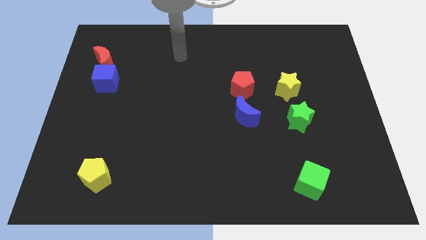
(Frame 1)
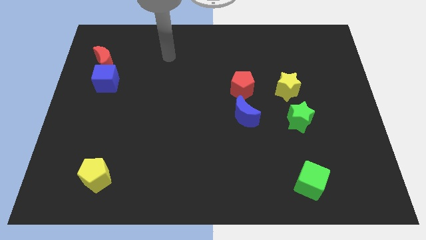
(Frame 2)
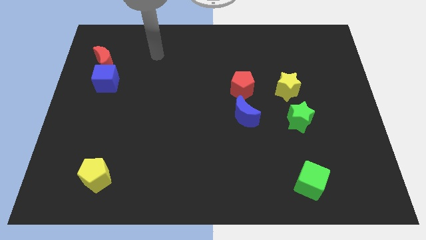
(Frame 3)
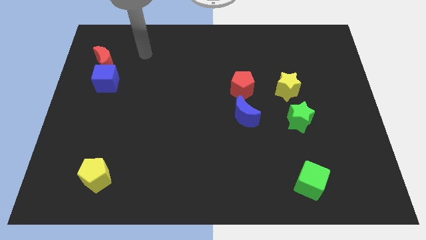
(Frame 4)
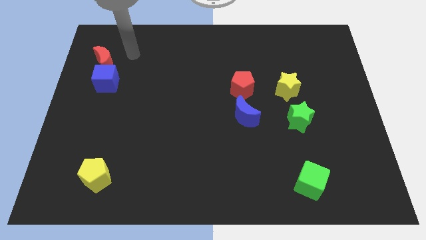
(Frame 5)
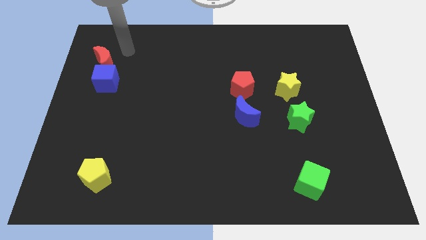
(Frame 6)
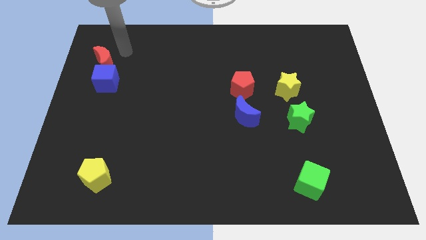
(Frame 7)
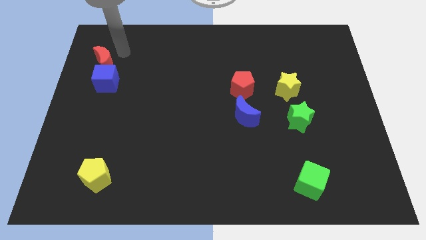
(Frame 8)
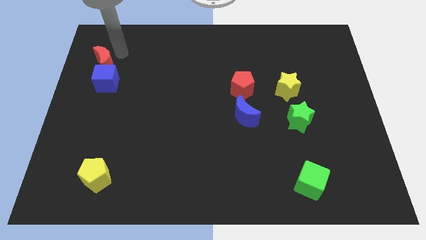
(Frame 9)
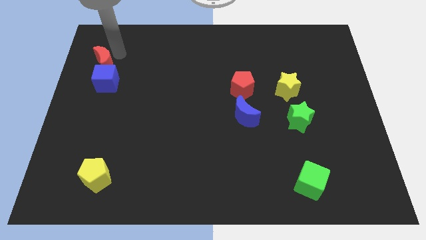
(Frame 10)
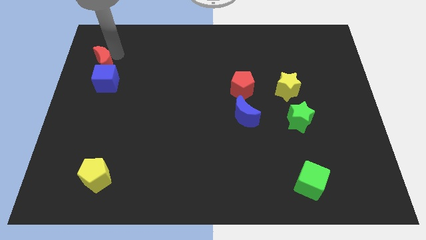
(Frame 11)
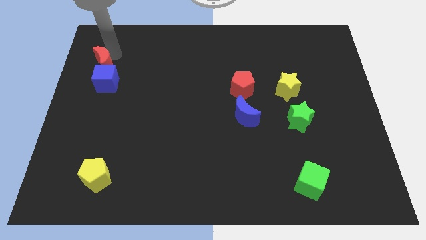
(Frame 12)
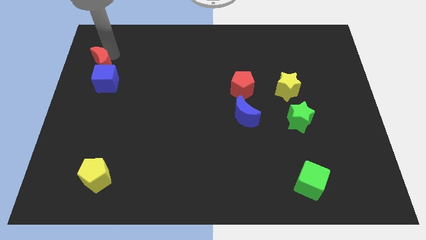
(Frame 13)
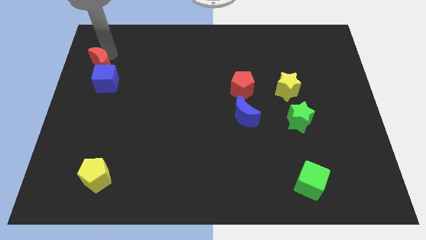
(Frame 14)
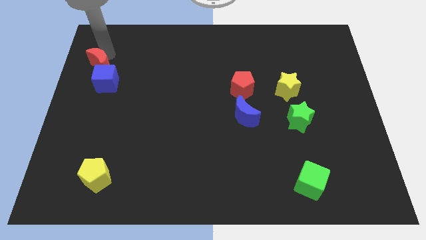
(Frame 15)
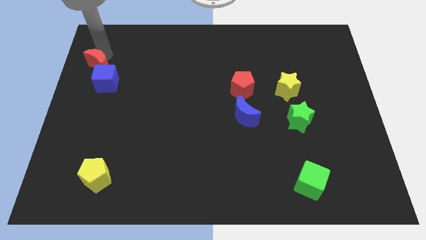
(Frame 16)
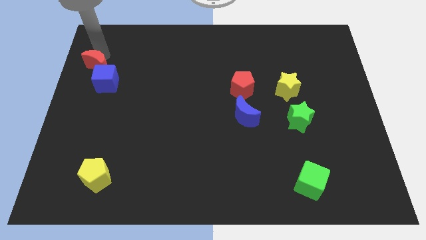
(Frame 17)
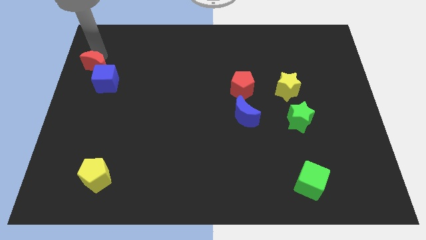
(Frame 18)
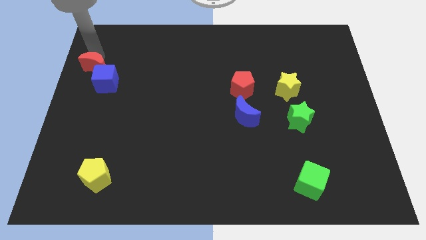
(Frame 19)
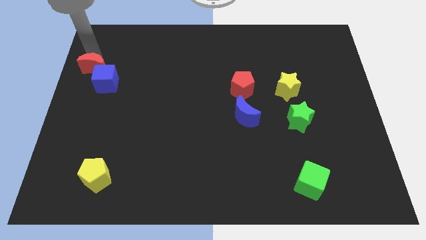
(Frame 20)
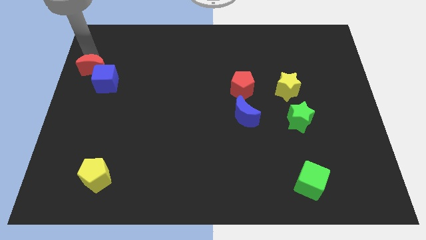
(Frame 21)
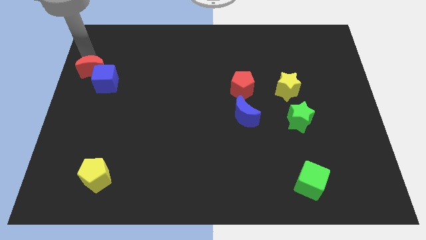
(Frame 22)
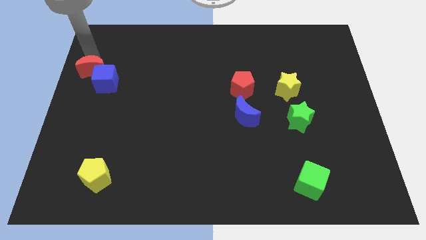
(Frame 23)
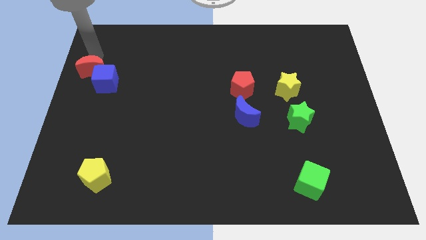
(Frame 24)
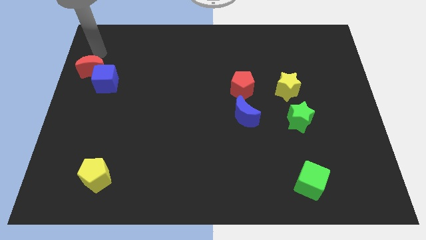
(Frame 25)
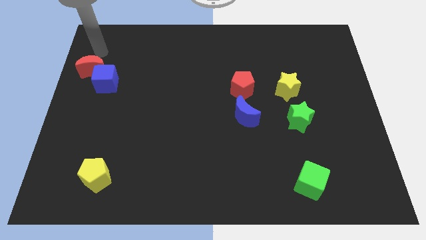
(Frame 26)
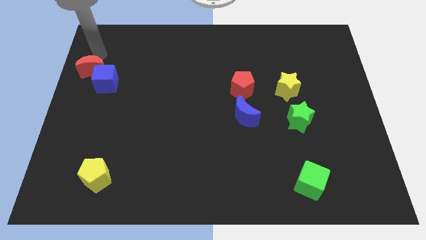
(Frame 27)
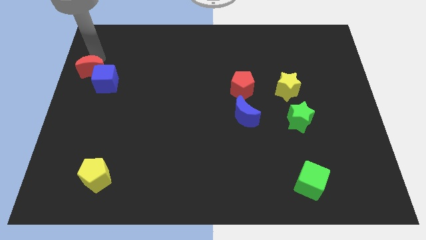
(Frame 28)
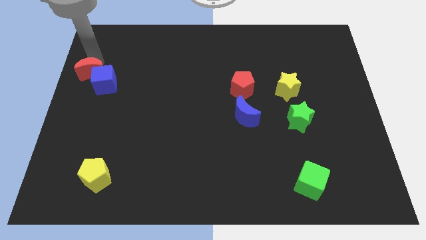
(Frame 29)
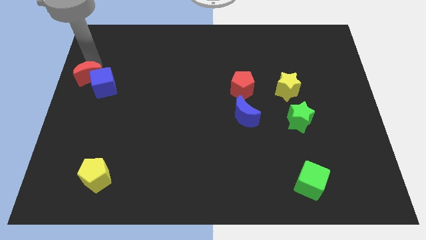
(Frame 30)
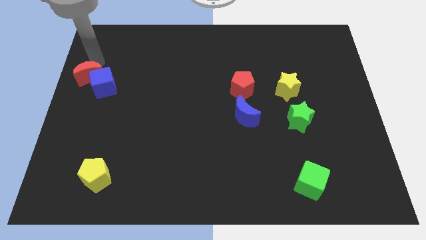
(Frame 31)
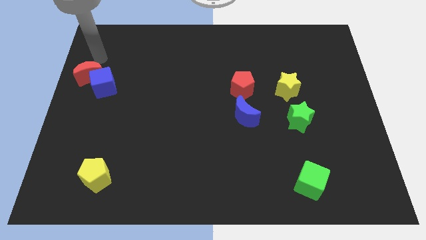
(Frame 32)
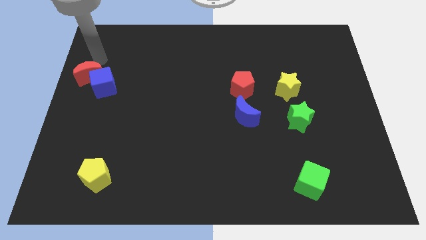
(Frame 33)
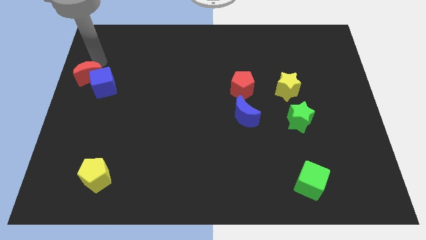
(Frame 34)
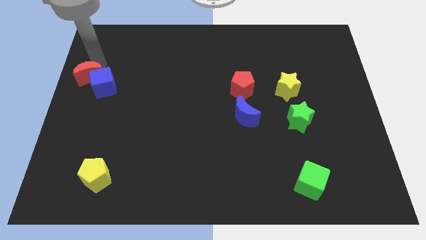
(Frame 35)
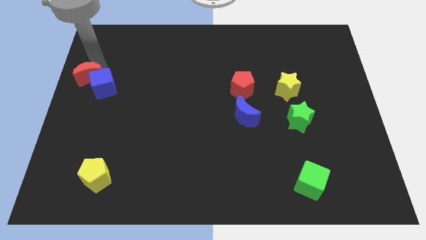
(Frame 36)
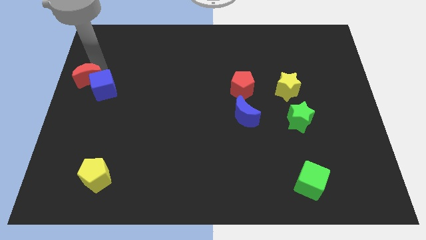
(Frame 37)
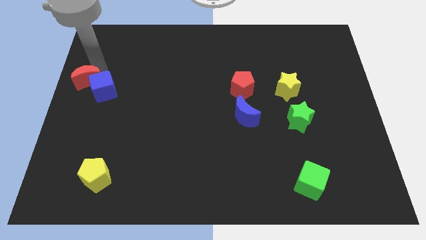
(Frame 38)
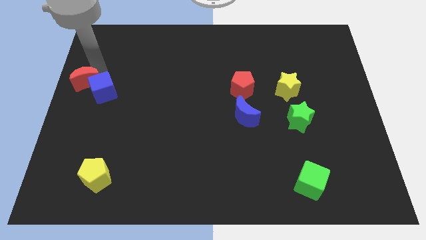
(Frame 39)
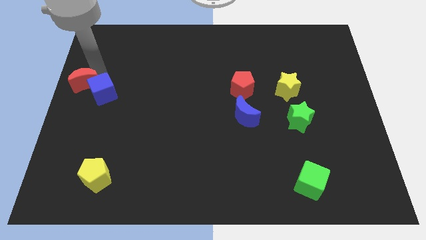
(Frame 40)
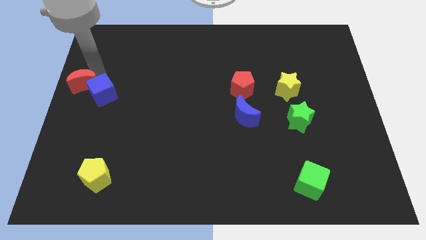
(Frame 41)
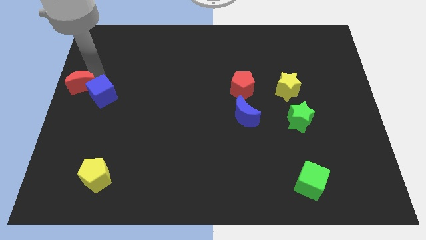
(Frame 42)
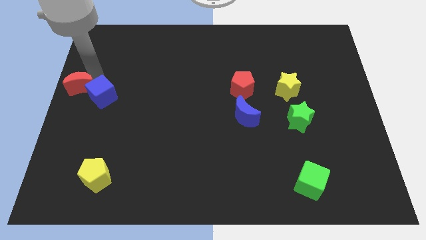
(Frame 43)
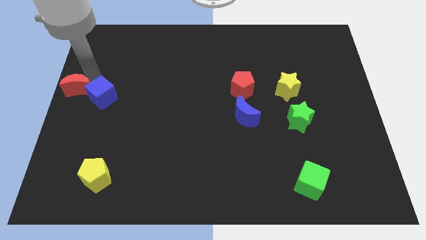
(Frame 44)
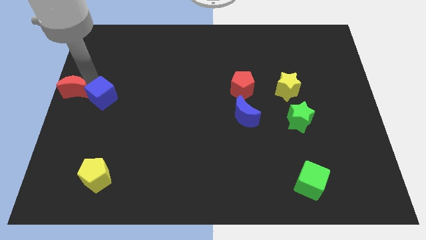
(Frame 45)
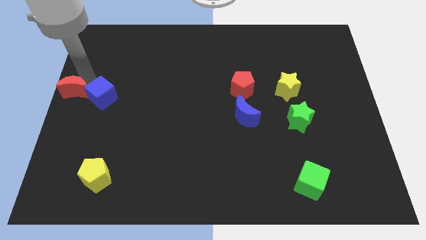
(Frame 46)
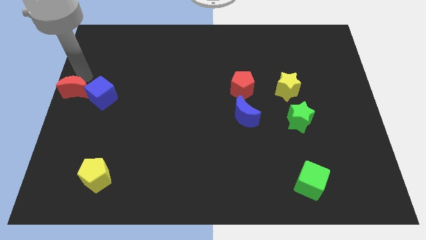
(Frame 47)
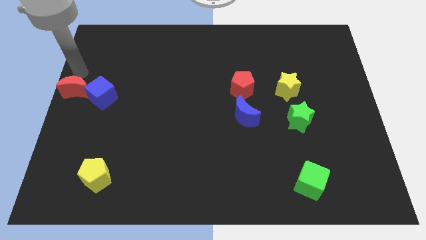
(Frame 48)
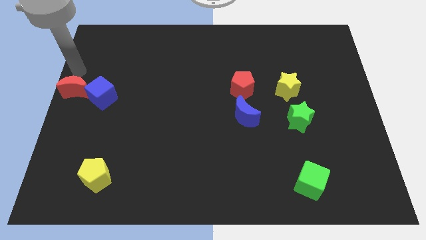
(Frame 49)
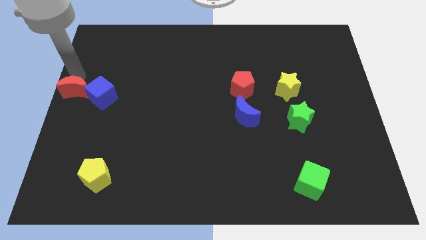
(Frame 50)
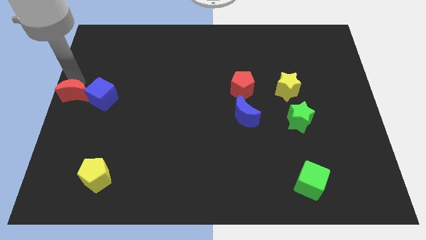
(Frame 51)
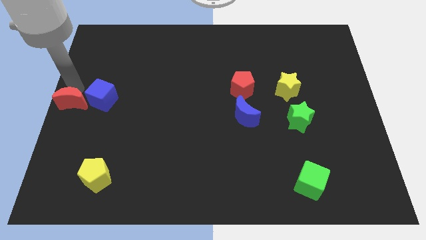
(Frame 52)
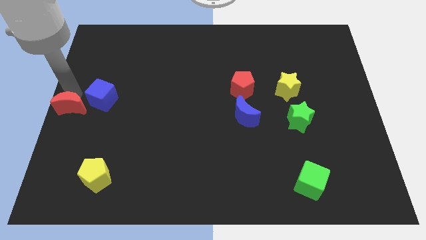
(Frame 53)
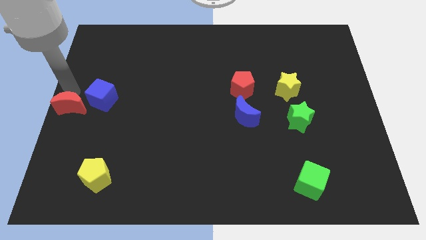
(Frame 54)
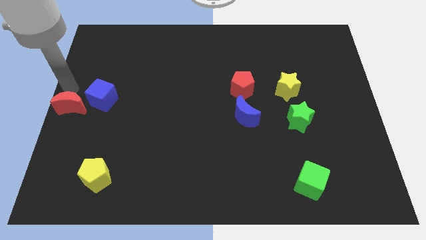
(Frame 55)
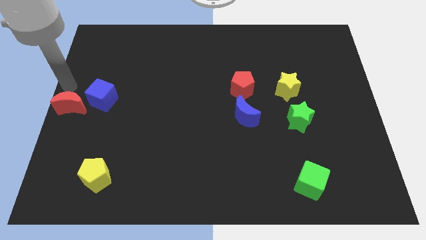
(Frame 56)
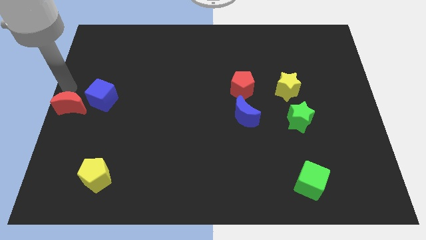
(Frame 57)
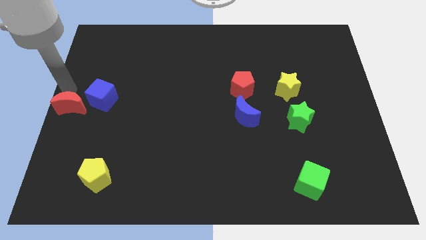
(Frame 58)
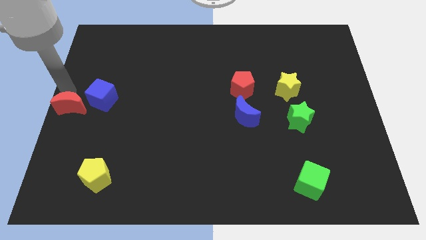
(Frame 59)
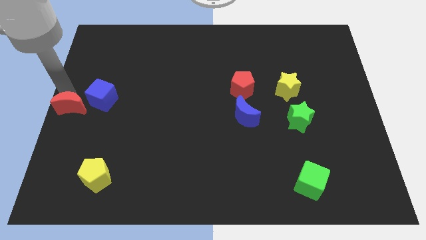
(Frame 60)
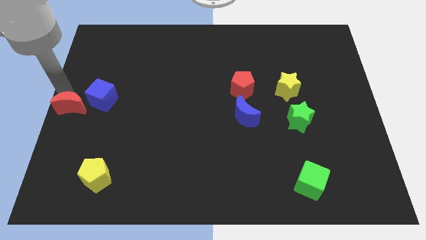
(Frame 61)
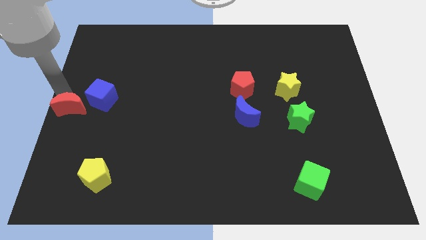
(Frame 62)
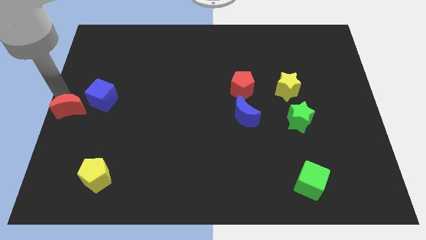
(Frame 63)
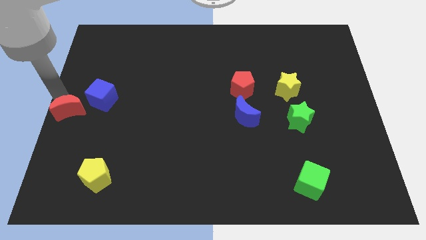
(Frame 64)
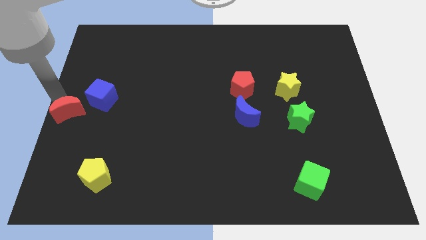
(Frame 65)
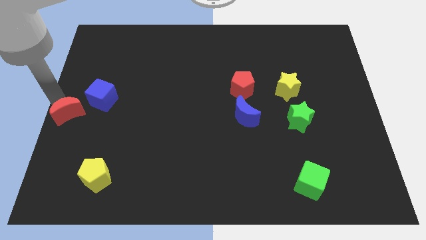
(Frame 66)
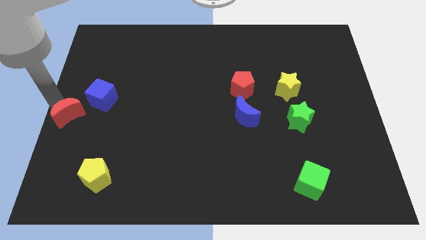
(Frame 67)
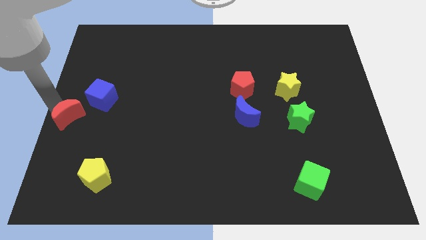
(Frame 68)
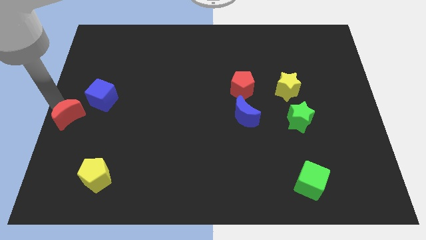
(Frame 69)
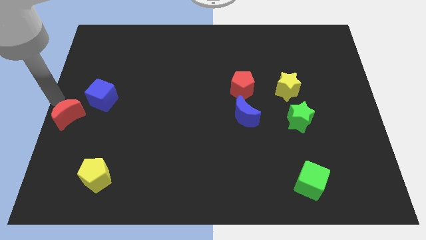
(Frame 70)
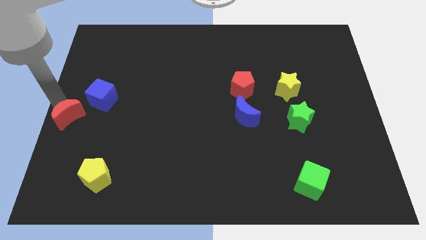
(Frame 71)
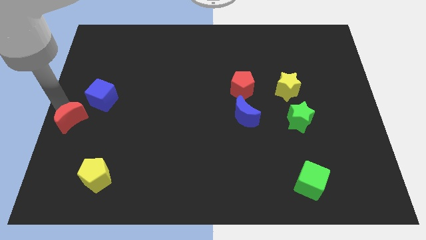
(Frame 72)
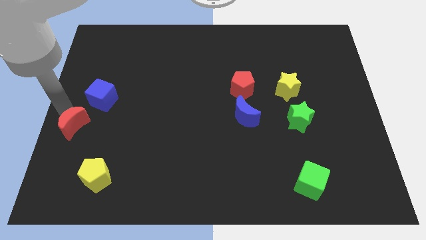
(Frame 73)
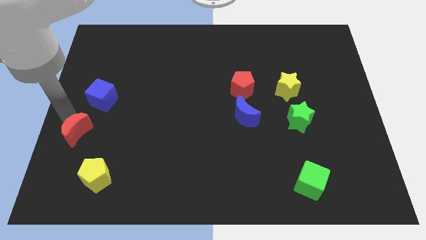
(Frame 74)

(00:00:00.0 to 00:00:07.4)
slide the red moon downwards

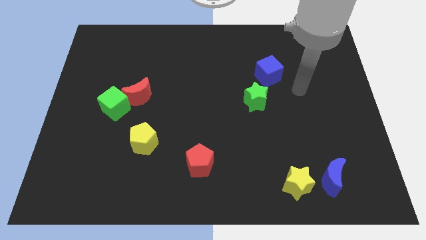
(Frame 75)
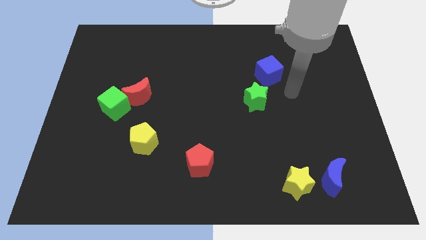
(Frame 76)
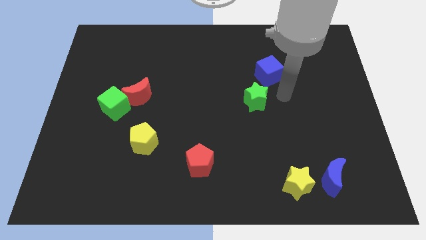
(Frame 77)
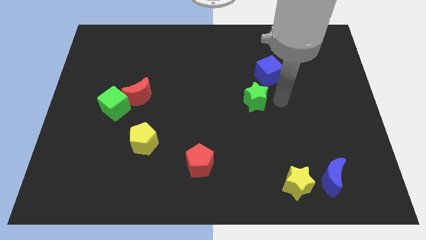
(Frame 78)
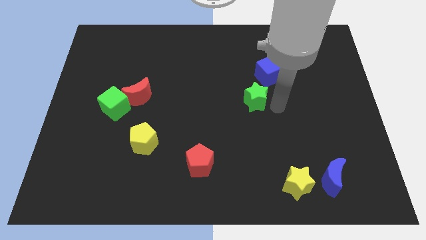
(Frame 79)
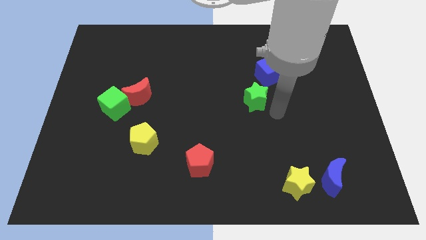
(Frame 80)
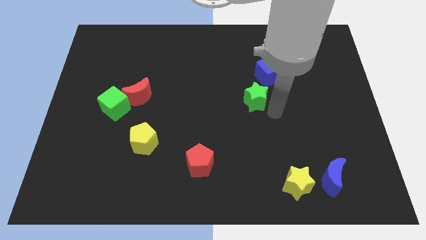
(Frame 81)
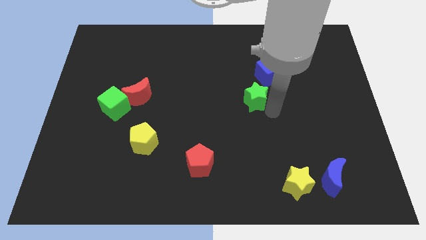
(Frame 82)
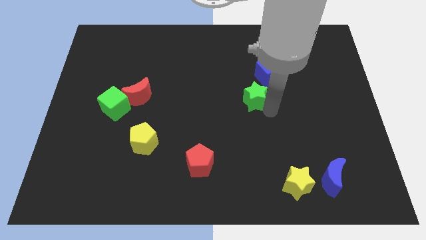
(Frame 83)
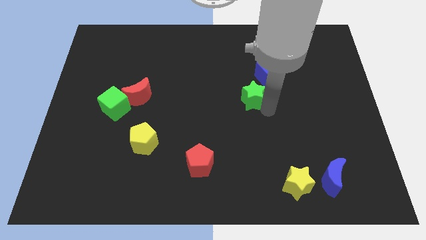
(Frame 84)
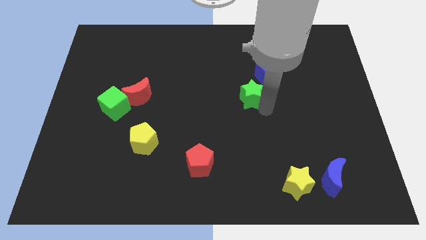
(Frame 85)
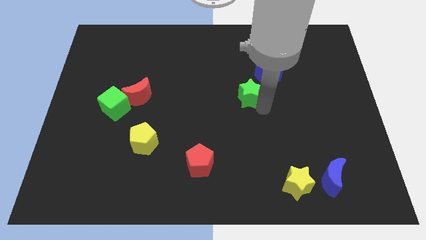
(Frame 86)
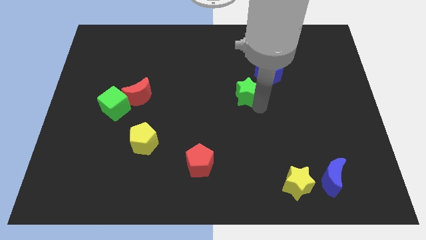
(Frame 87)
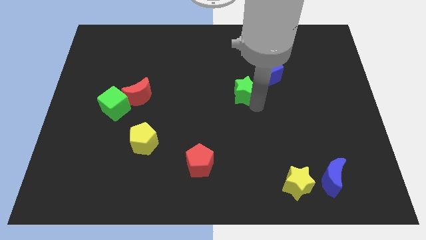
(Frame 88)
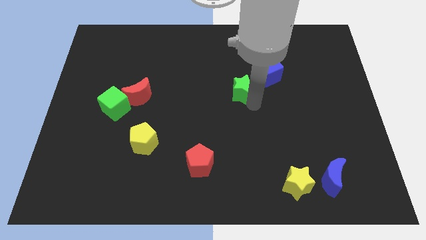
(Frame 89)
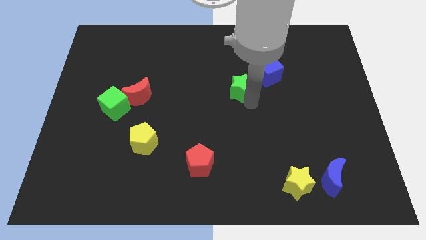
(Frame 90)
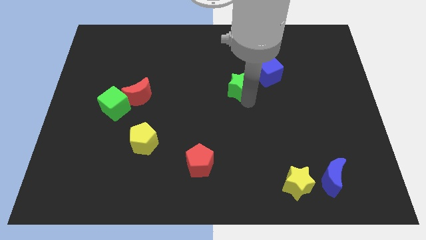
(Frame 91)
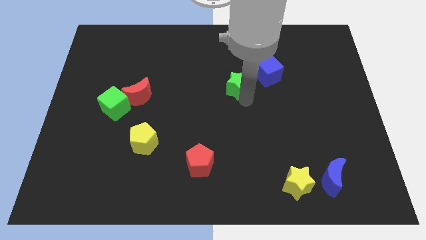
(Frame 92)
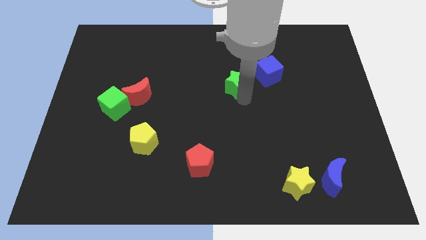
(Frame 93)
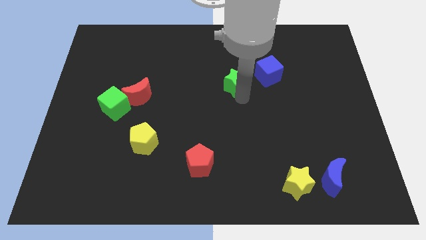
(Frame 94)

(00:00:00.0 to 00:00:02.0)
push the green star up and then to the left a little
